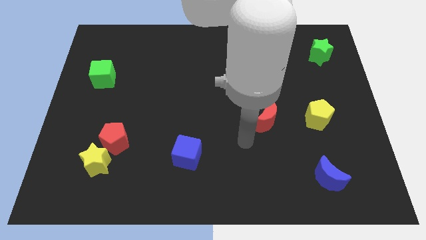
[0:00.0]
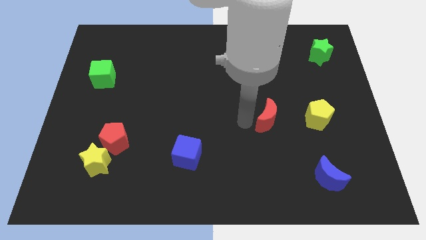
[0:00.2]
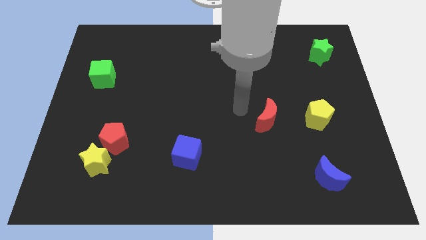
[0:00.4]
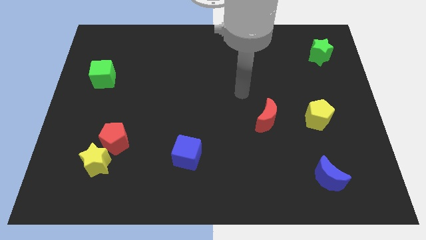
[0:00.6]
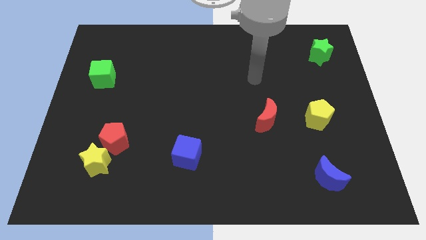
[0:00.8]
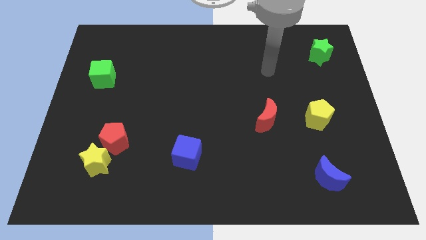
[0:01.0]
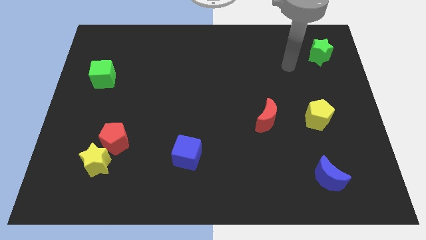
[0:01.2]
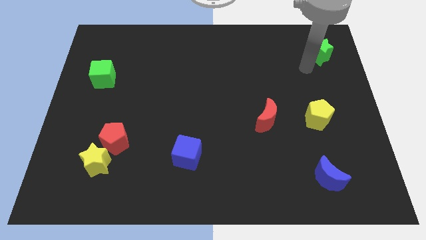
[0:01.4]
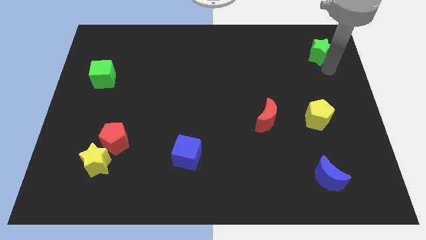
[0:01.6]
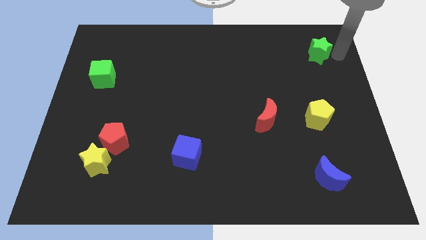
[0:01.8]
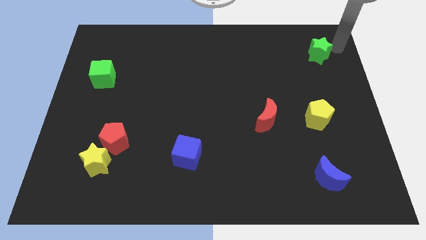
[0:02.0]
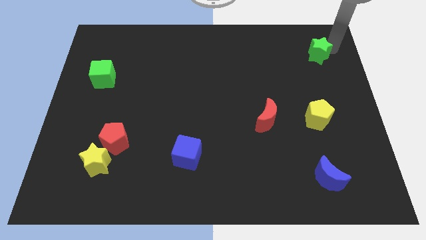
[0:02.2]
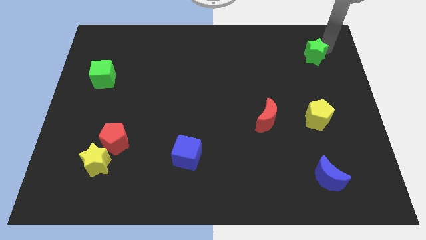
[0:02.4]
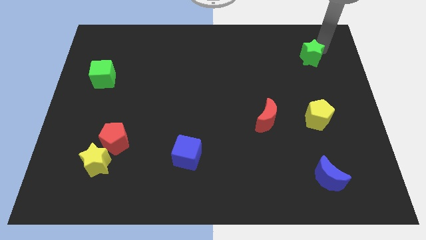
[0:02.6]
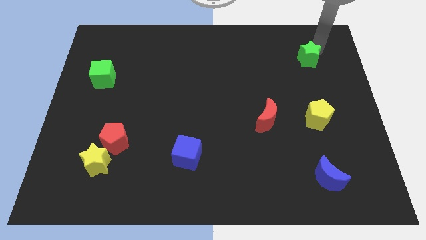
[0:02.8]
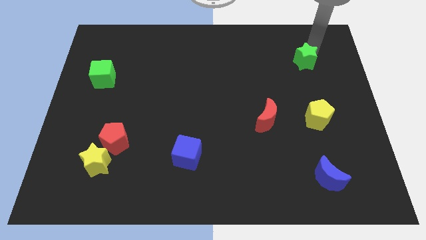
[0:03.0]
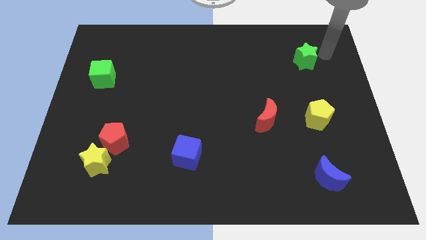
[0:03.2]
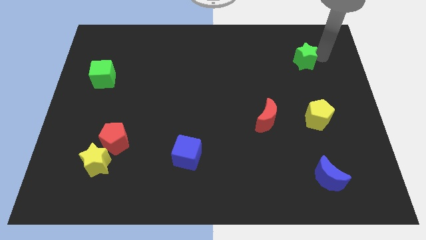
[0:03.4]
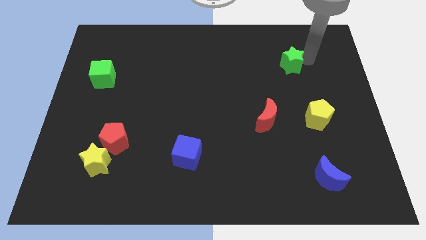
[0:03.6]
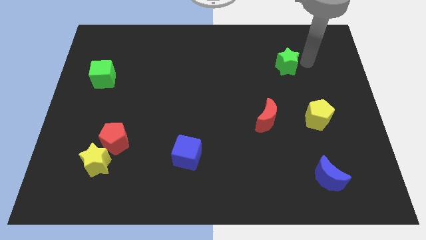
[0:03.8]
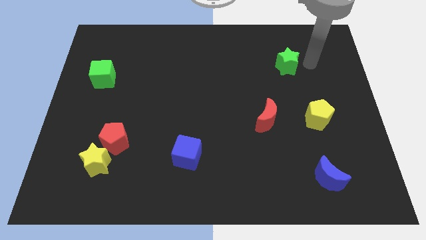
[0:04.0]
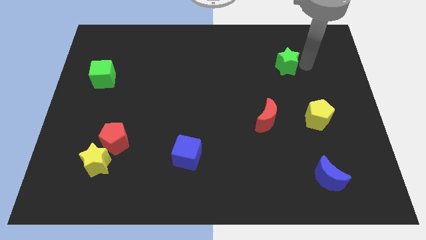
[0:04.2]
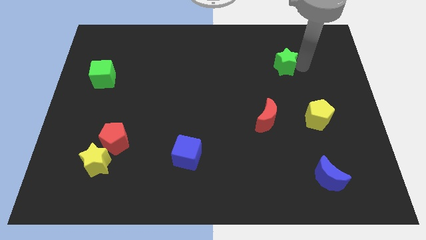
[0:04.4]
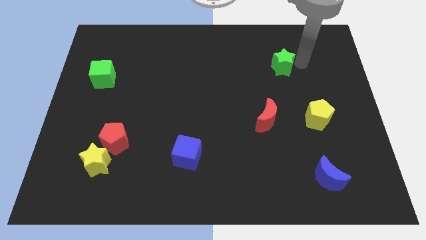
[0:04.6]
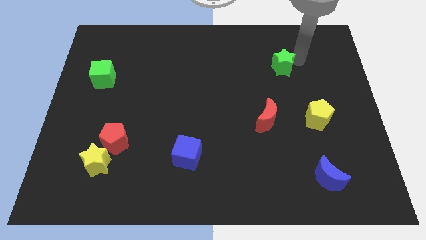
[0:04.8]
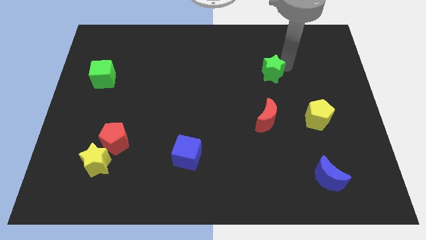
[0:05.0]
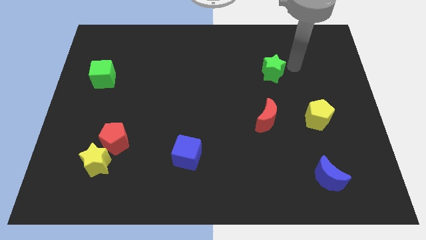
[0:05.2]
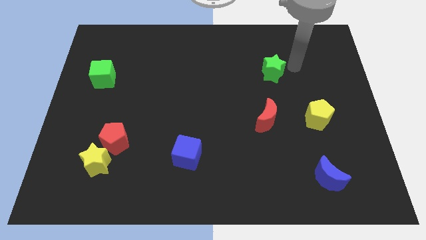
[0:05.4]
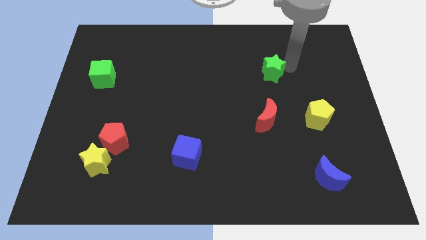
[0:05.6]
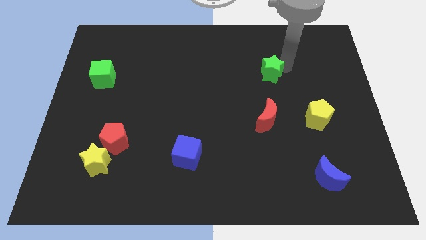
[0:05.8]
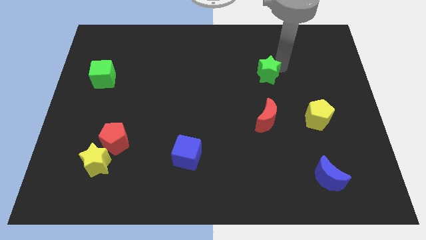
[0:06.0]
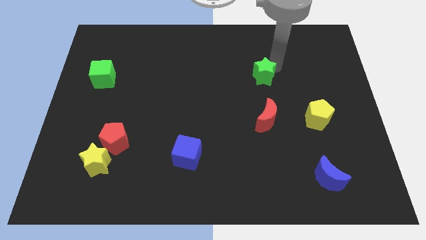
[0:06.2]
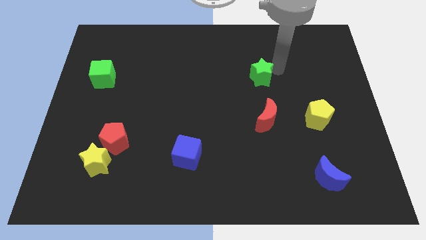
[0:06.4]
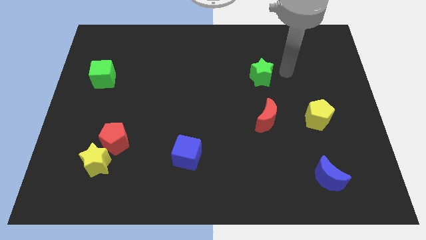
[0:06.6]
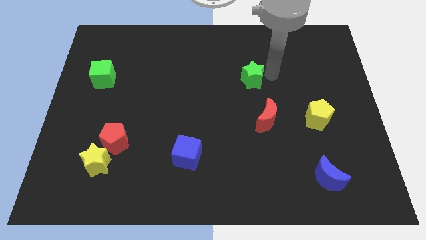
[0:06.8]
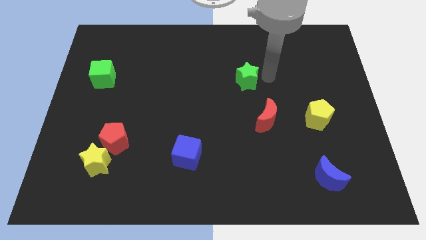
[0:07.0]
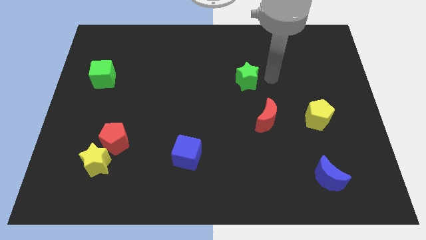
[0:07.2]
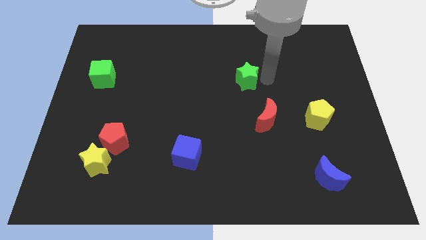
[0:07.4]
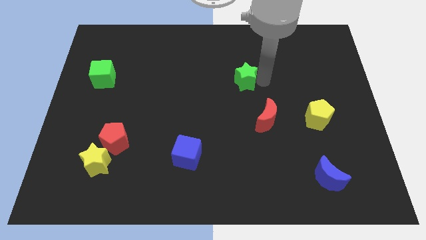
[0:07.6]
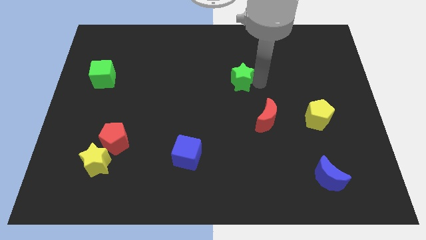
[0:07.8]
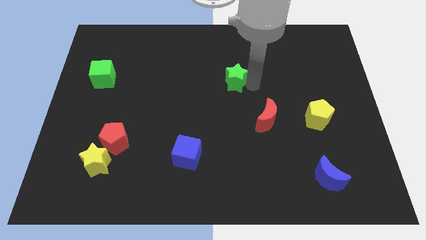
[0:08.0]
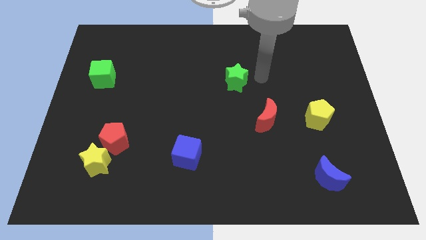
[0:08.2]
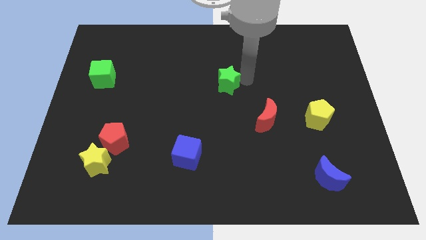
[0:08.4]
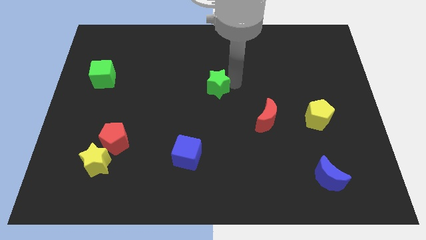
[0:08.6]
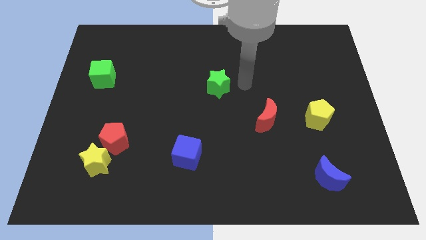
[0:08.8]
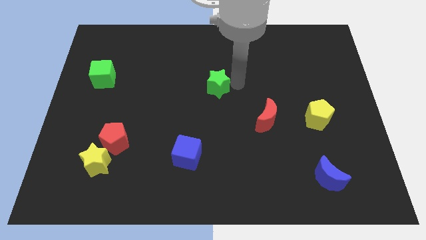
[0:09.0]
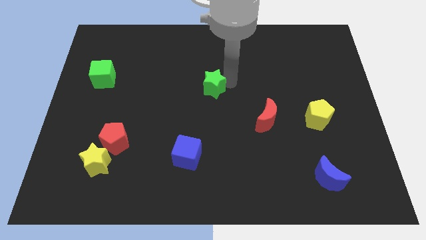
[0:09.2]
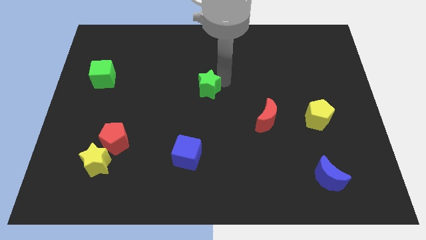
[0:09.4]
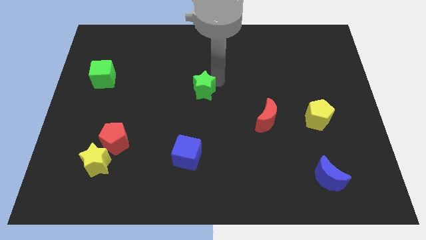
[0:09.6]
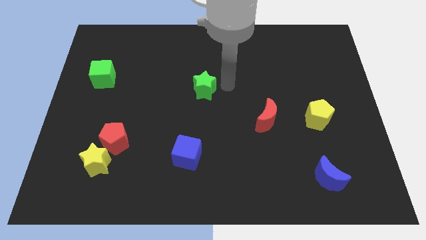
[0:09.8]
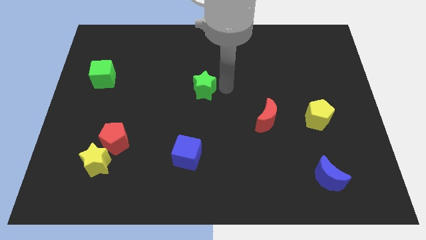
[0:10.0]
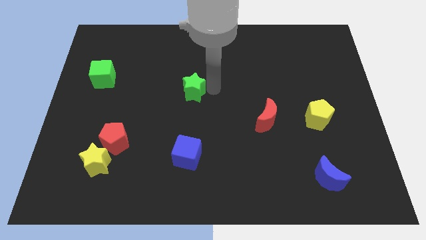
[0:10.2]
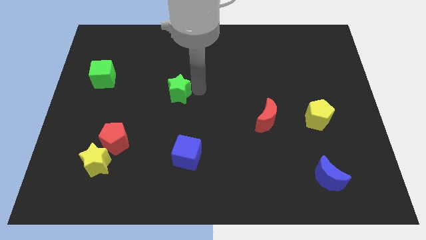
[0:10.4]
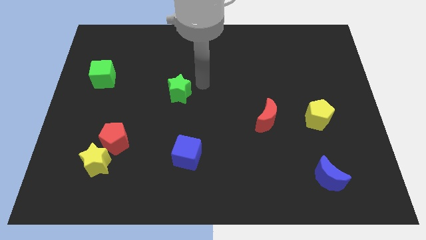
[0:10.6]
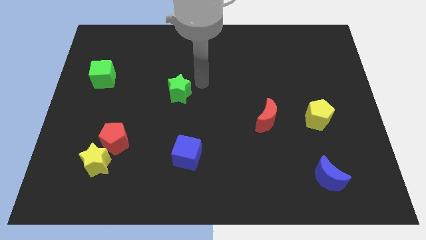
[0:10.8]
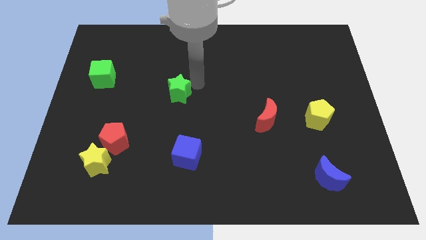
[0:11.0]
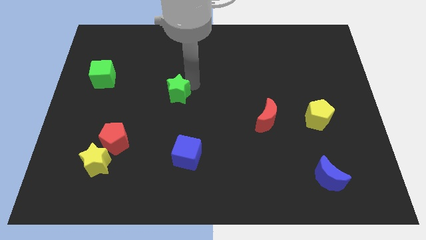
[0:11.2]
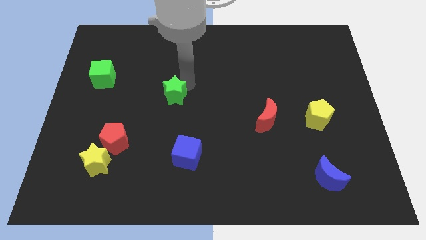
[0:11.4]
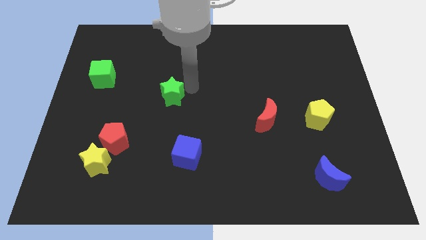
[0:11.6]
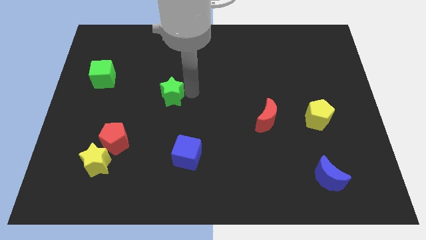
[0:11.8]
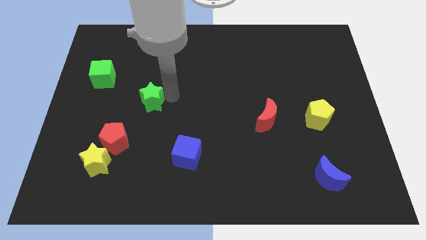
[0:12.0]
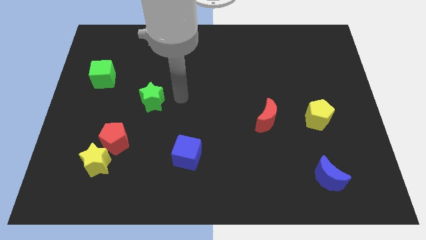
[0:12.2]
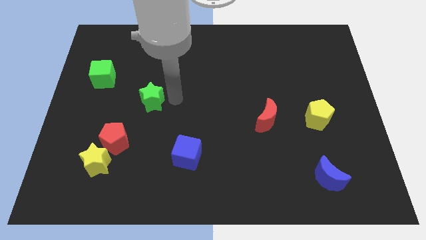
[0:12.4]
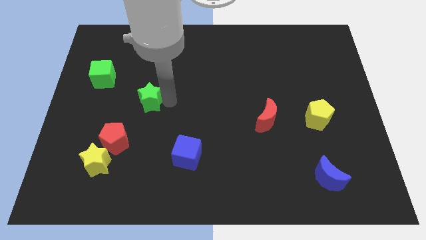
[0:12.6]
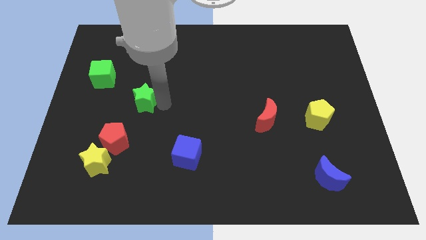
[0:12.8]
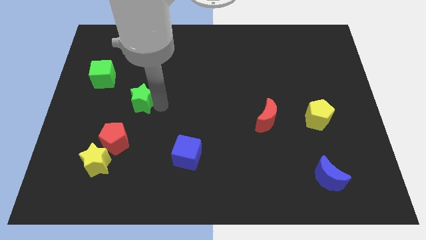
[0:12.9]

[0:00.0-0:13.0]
push the green star to the top side of the red pentagon

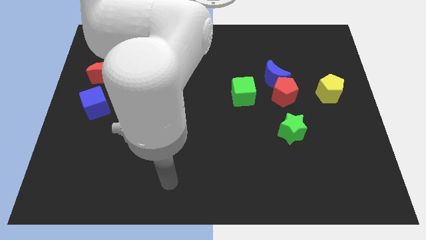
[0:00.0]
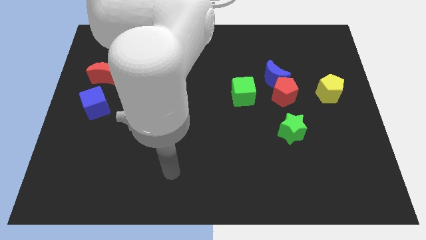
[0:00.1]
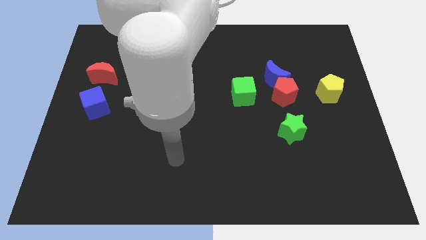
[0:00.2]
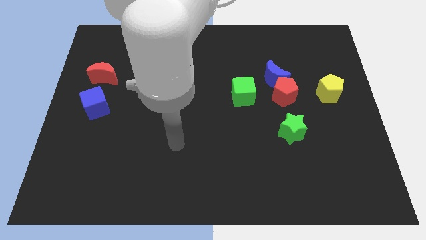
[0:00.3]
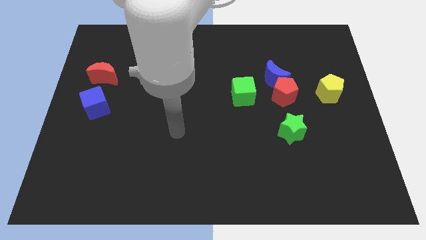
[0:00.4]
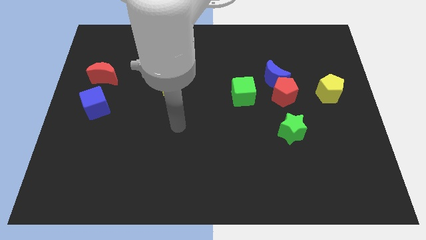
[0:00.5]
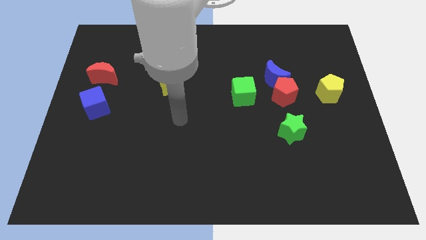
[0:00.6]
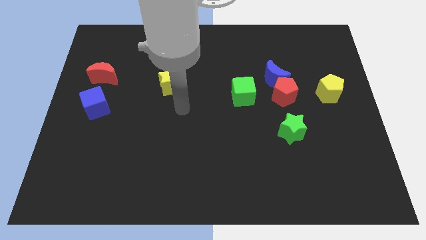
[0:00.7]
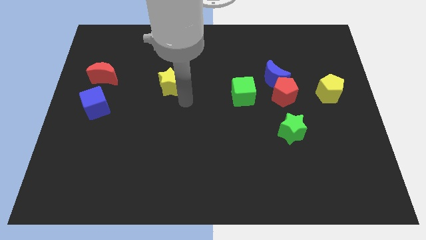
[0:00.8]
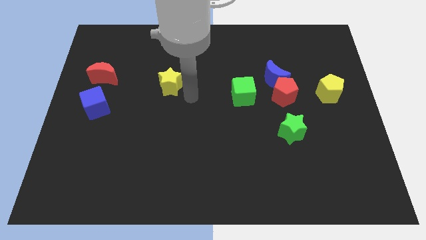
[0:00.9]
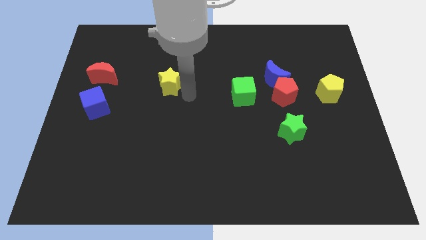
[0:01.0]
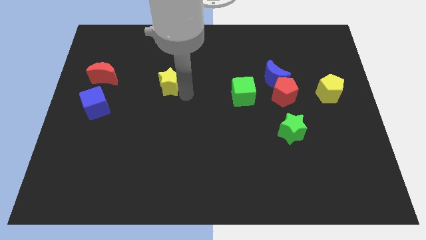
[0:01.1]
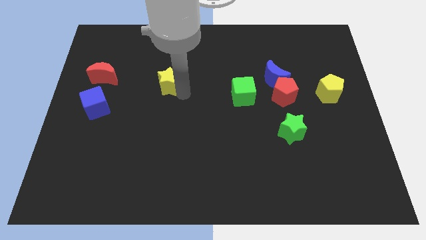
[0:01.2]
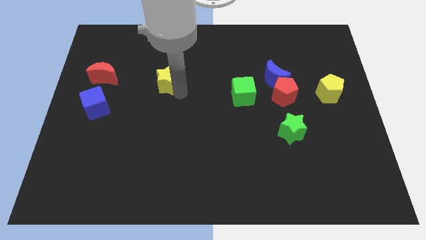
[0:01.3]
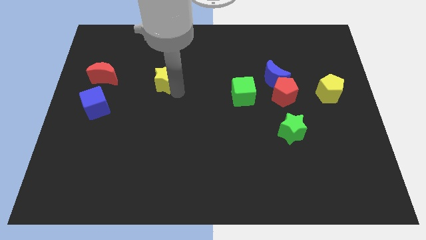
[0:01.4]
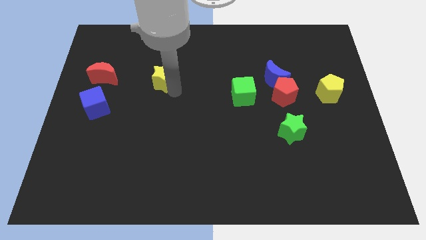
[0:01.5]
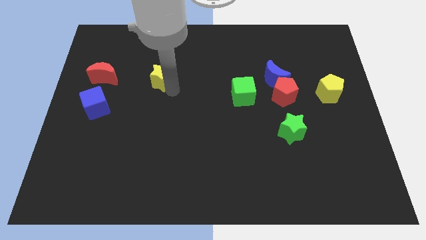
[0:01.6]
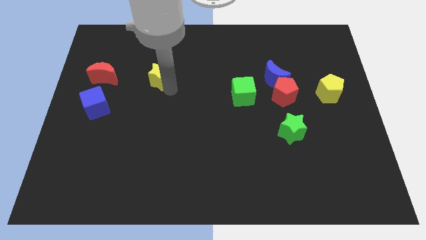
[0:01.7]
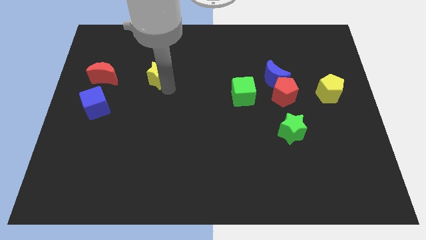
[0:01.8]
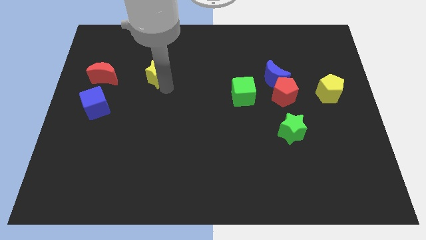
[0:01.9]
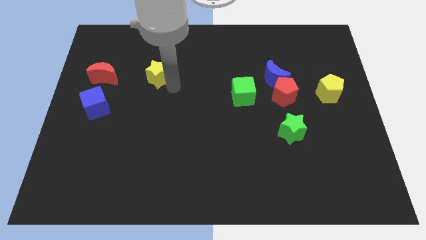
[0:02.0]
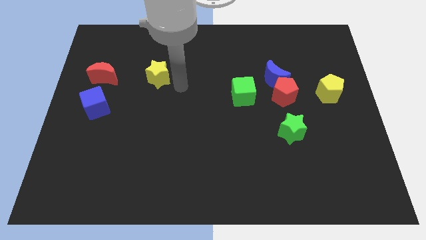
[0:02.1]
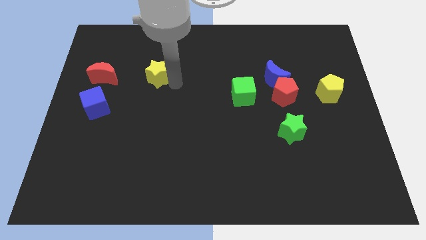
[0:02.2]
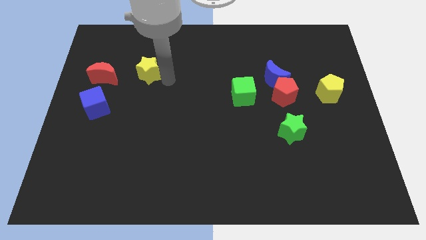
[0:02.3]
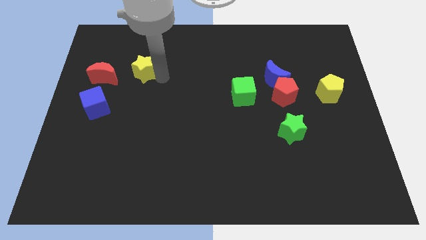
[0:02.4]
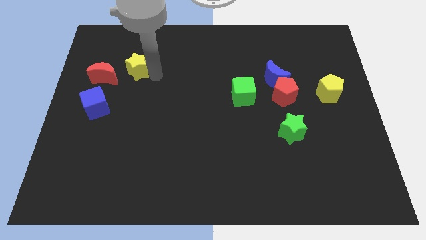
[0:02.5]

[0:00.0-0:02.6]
move the yellow star diagonally up and to the right of the red moon
